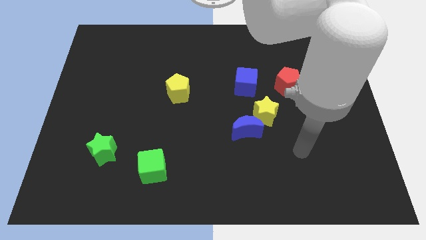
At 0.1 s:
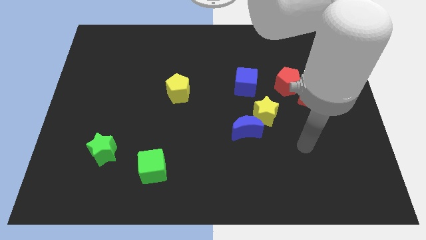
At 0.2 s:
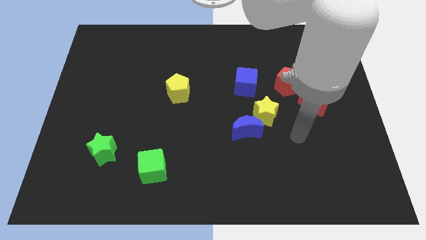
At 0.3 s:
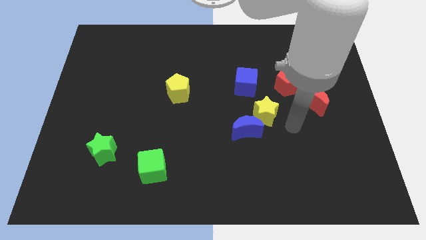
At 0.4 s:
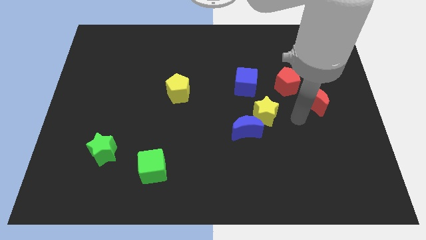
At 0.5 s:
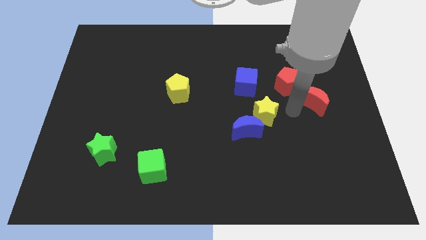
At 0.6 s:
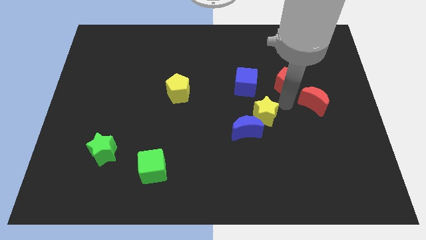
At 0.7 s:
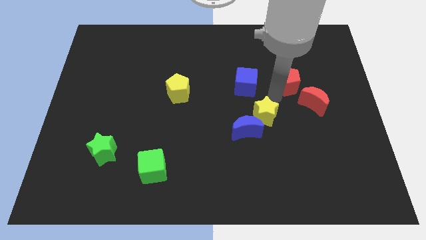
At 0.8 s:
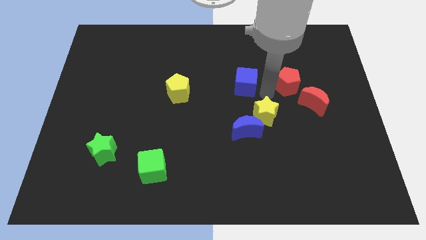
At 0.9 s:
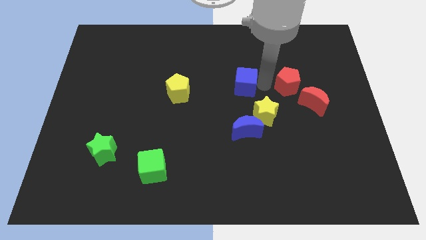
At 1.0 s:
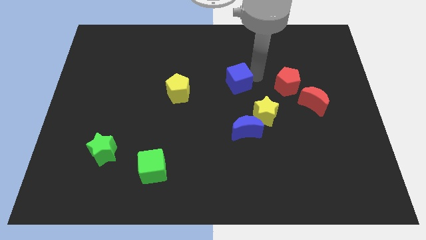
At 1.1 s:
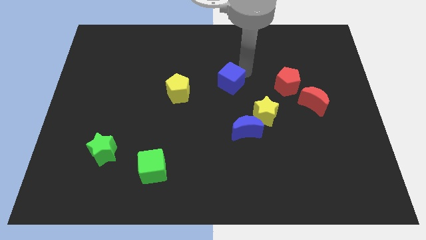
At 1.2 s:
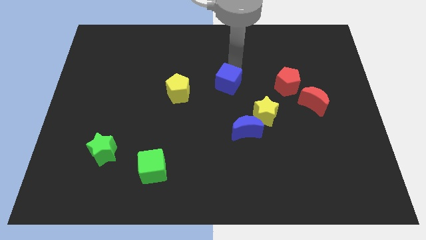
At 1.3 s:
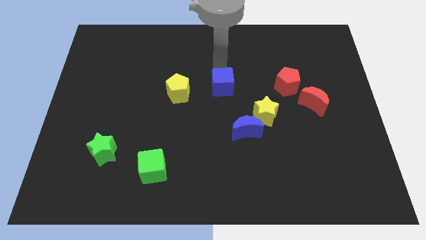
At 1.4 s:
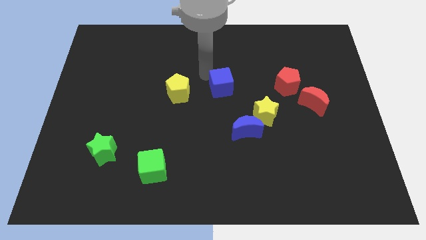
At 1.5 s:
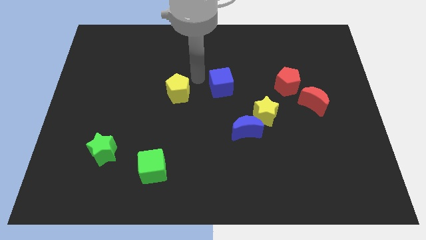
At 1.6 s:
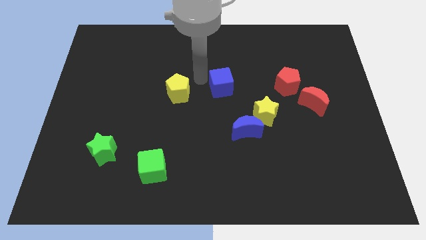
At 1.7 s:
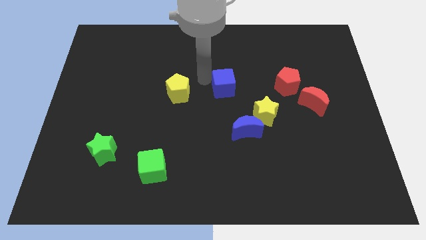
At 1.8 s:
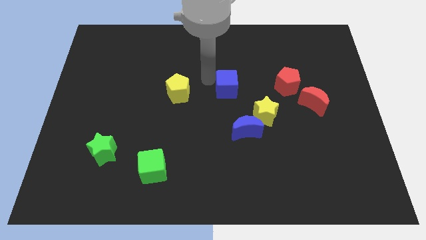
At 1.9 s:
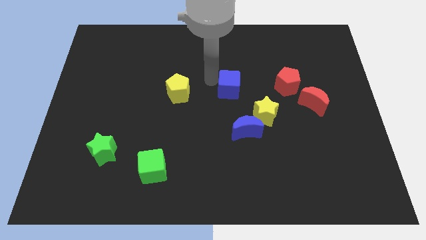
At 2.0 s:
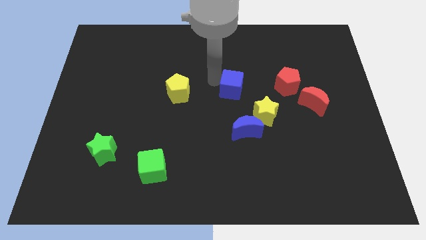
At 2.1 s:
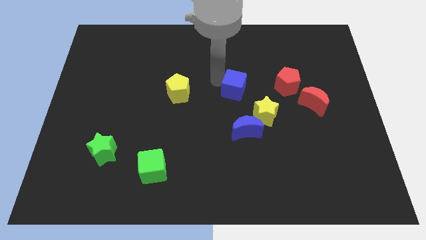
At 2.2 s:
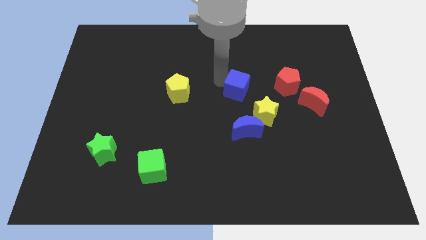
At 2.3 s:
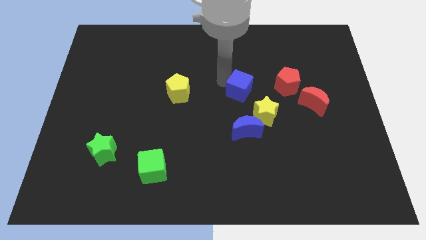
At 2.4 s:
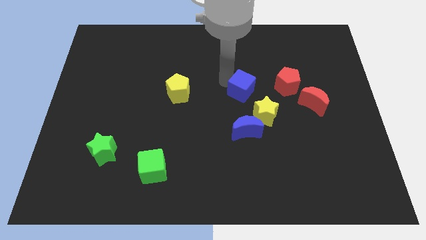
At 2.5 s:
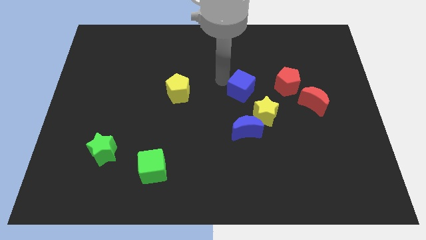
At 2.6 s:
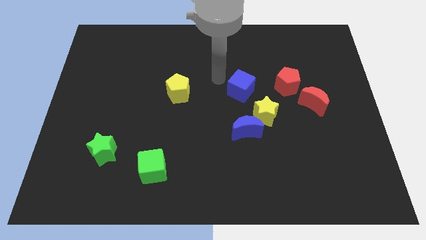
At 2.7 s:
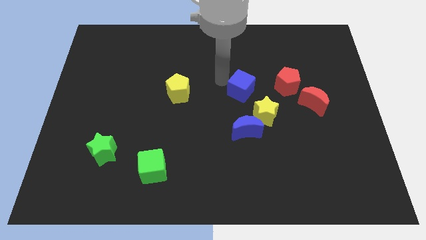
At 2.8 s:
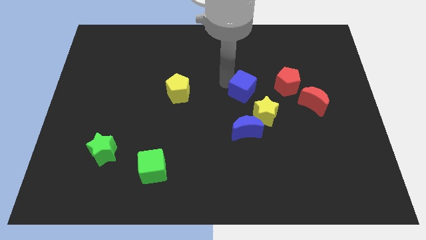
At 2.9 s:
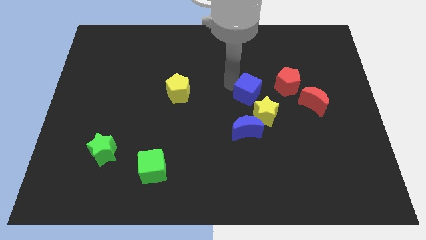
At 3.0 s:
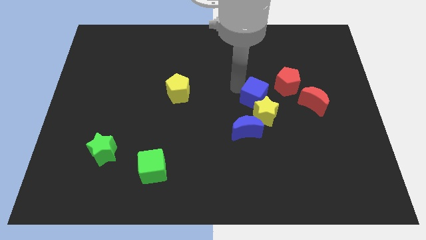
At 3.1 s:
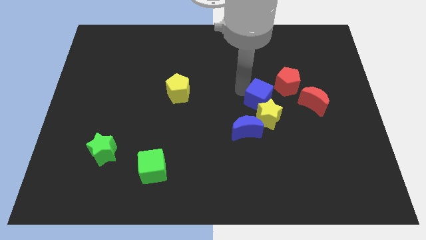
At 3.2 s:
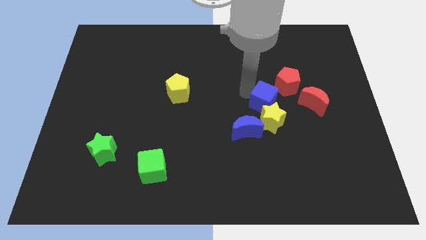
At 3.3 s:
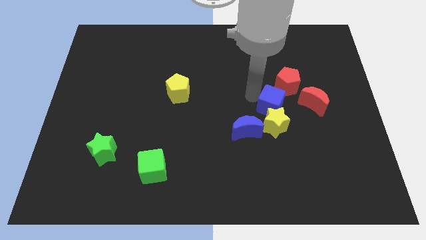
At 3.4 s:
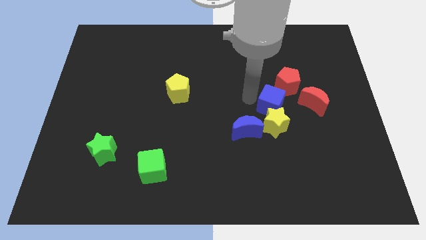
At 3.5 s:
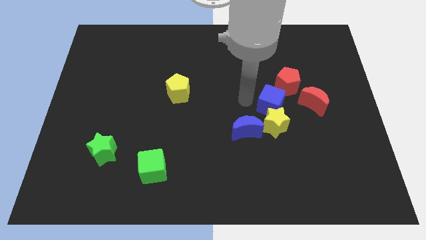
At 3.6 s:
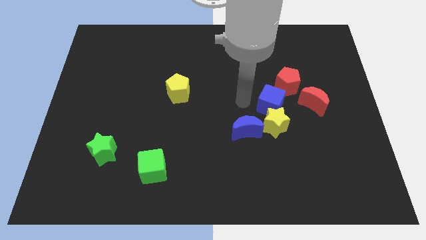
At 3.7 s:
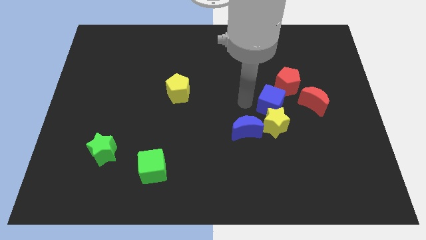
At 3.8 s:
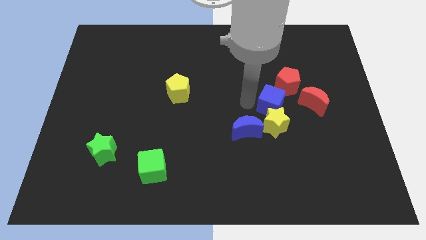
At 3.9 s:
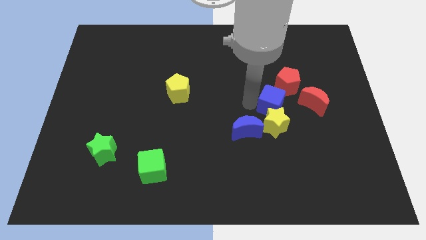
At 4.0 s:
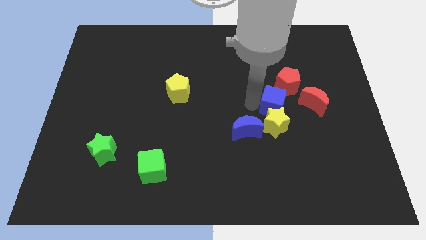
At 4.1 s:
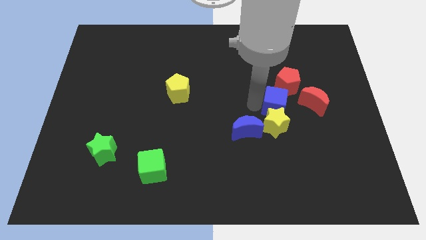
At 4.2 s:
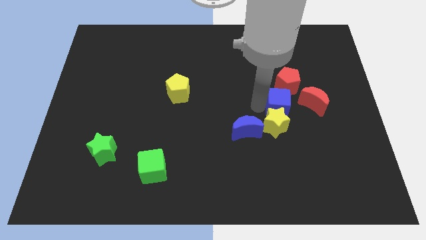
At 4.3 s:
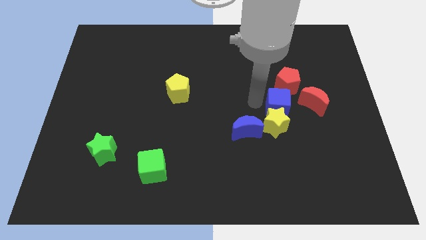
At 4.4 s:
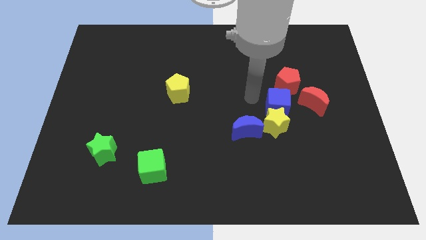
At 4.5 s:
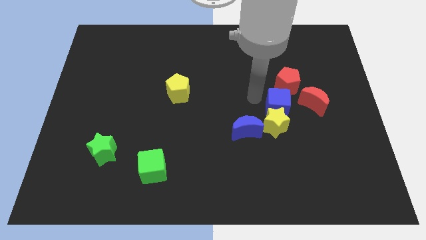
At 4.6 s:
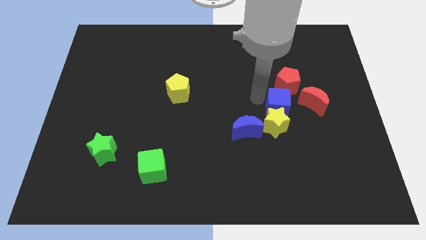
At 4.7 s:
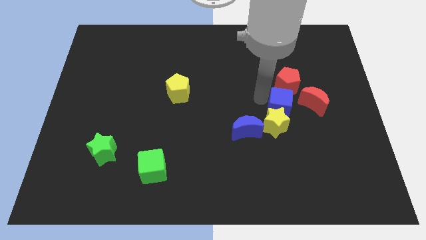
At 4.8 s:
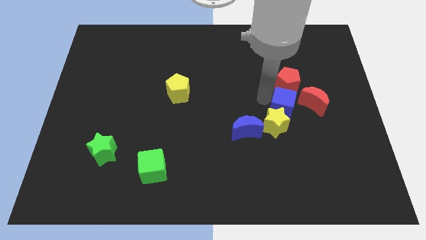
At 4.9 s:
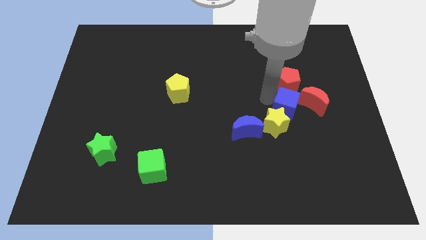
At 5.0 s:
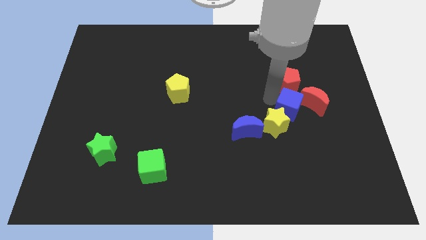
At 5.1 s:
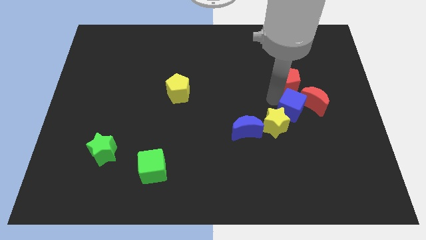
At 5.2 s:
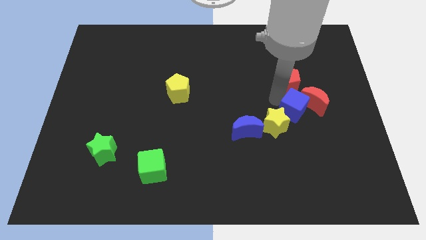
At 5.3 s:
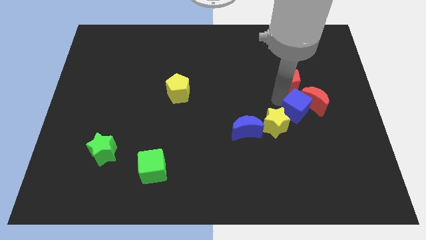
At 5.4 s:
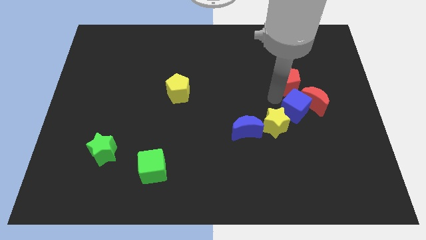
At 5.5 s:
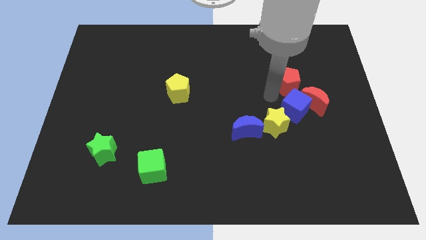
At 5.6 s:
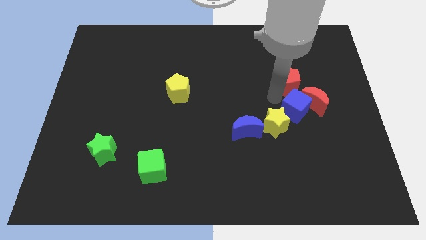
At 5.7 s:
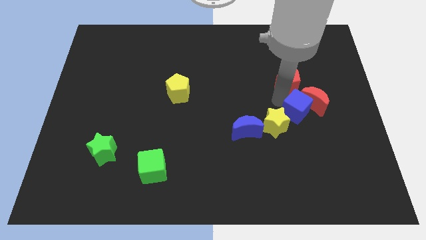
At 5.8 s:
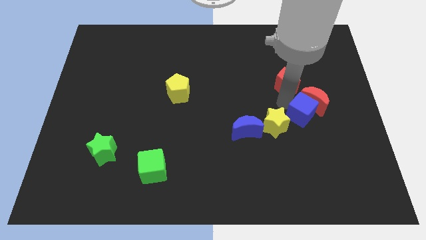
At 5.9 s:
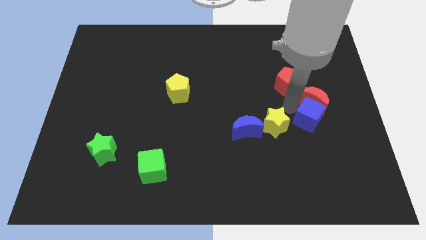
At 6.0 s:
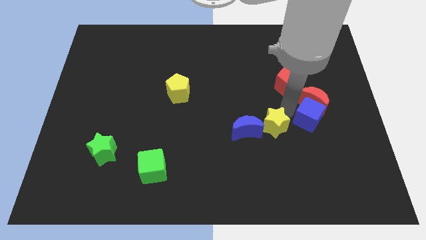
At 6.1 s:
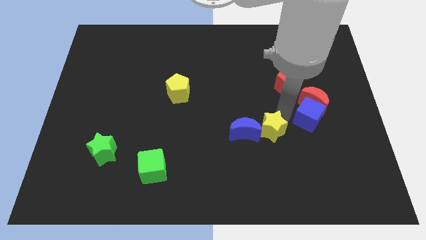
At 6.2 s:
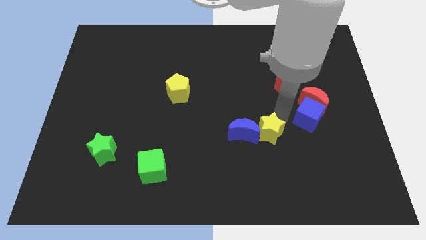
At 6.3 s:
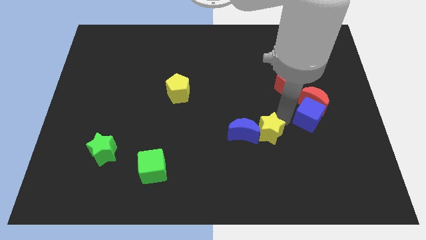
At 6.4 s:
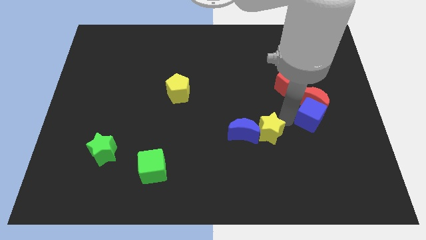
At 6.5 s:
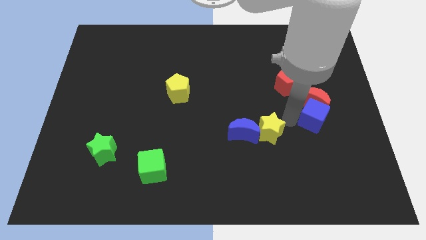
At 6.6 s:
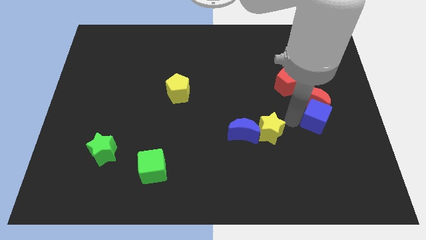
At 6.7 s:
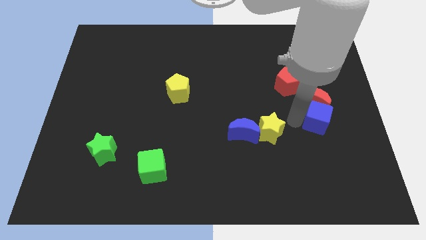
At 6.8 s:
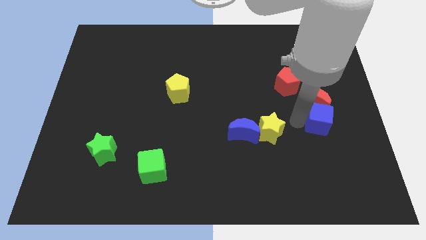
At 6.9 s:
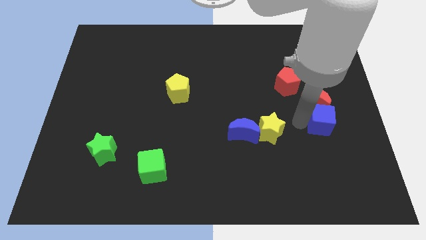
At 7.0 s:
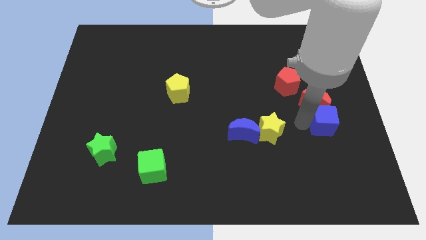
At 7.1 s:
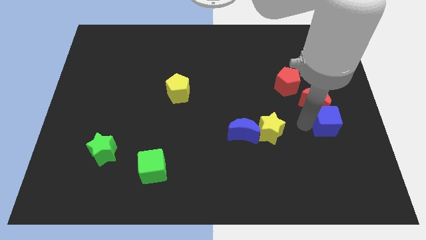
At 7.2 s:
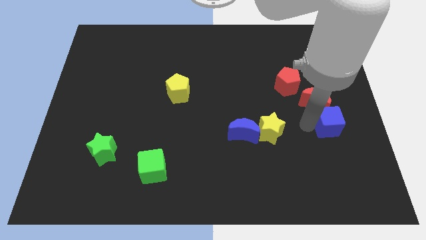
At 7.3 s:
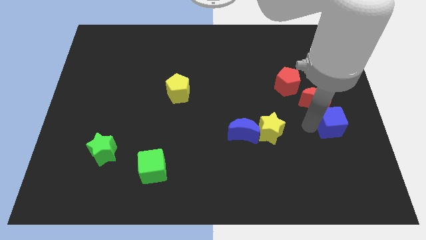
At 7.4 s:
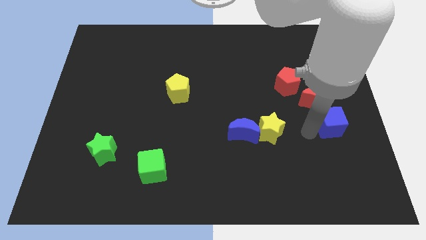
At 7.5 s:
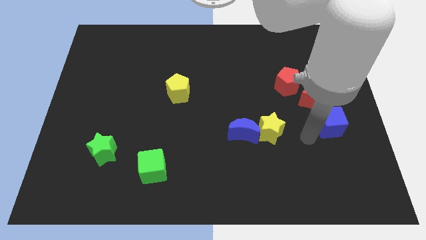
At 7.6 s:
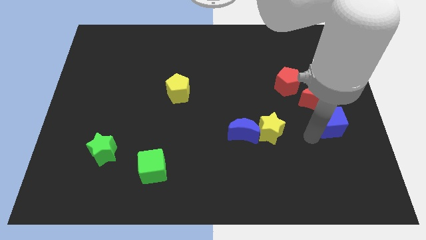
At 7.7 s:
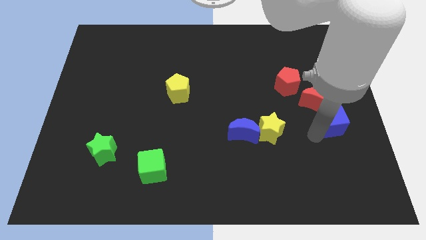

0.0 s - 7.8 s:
move the blue cube to the right side of the board
